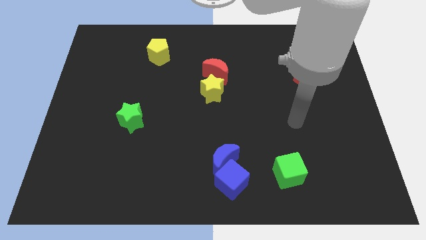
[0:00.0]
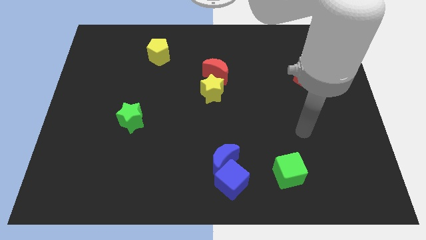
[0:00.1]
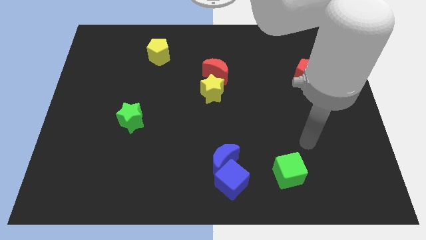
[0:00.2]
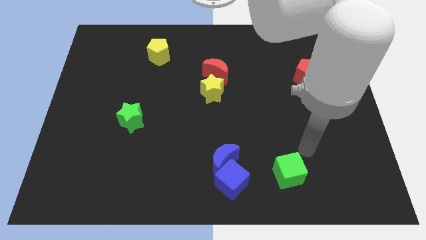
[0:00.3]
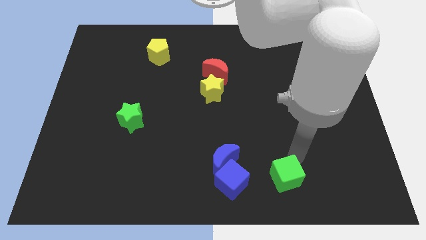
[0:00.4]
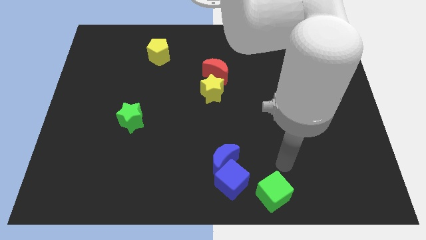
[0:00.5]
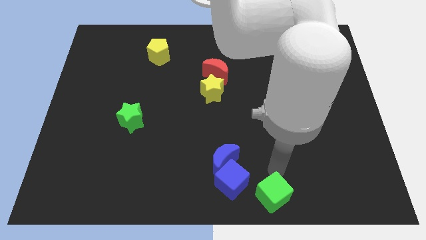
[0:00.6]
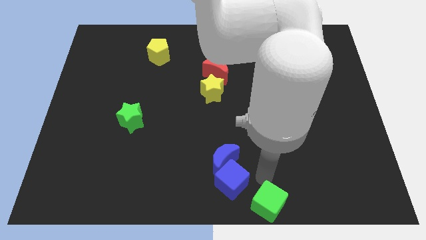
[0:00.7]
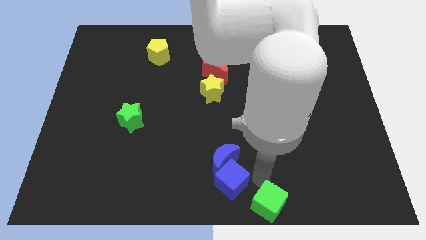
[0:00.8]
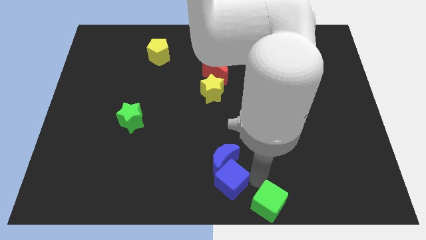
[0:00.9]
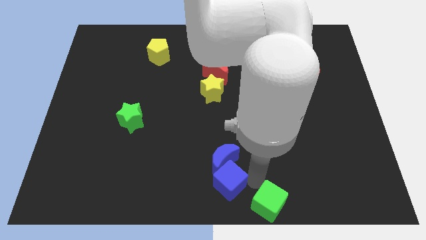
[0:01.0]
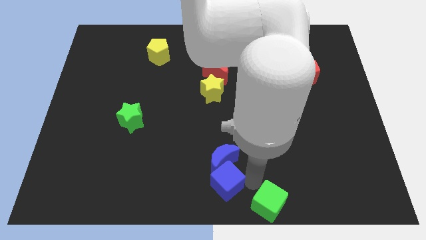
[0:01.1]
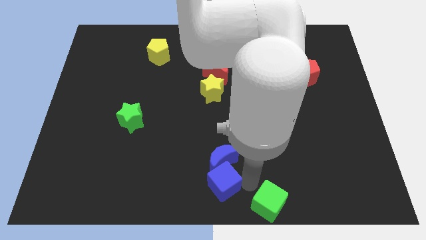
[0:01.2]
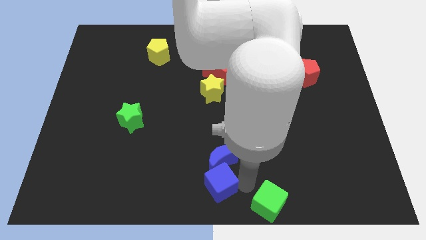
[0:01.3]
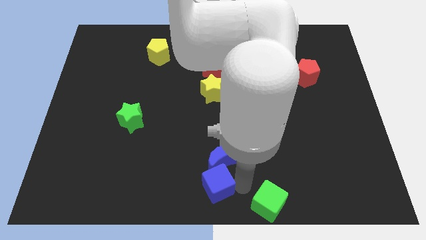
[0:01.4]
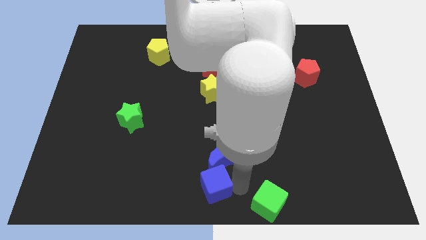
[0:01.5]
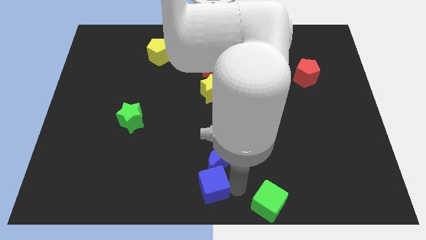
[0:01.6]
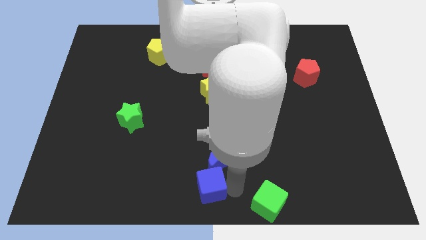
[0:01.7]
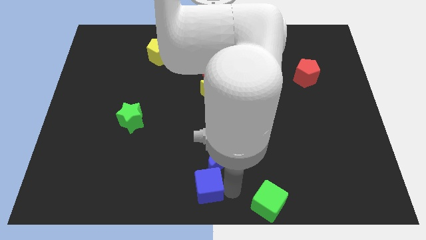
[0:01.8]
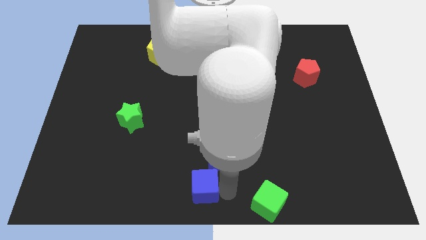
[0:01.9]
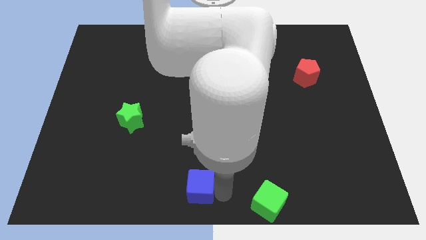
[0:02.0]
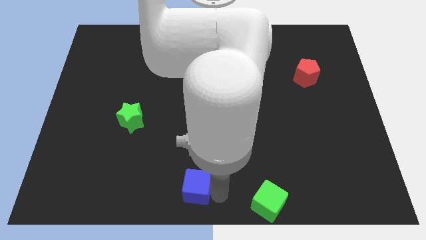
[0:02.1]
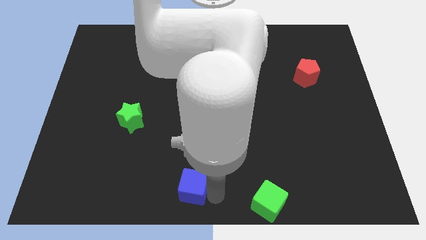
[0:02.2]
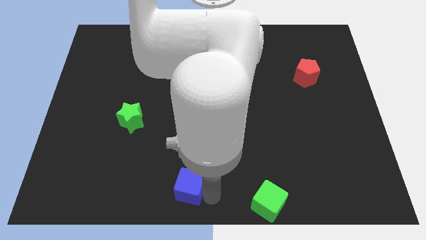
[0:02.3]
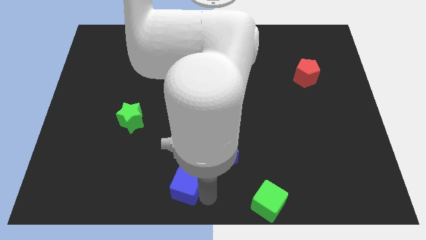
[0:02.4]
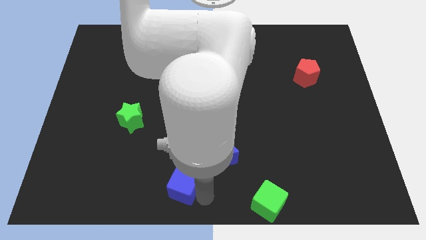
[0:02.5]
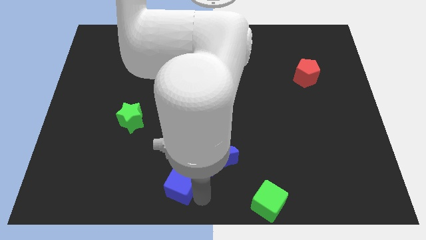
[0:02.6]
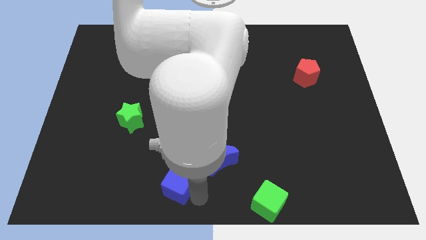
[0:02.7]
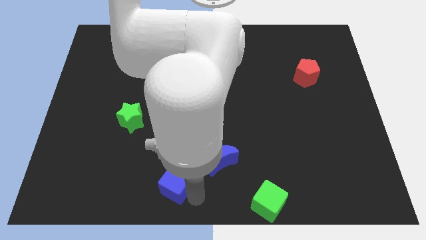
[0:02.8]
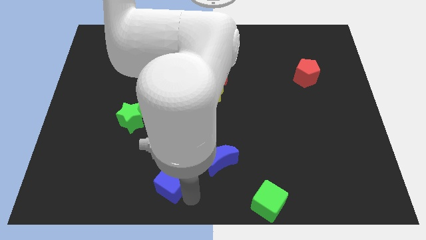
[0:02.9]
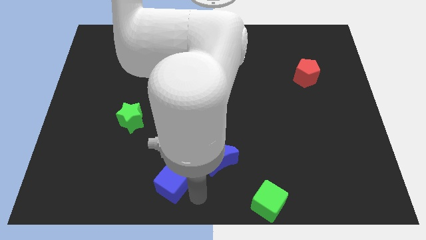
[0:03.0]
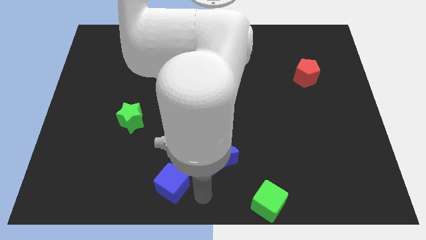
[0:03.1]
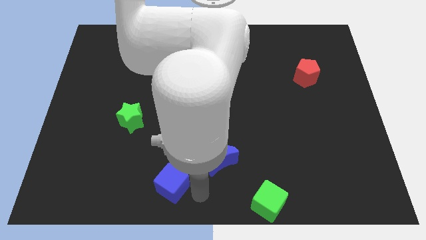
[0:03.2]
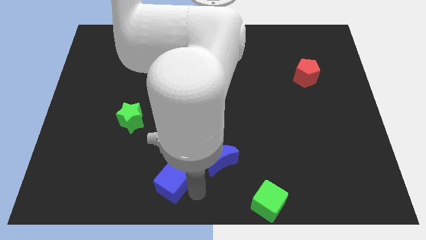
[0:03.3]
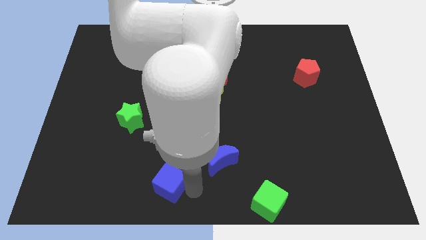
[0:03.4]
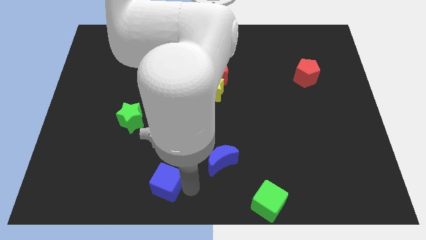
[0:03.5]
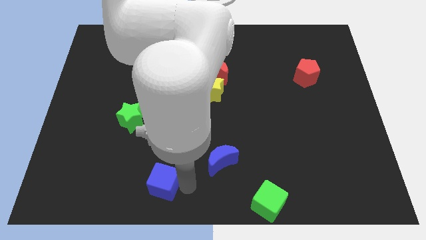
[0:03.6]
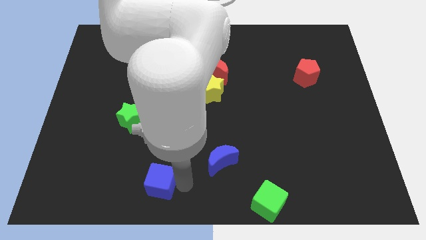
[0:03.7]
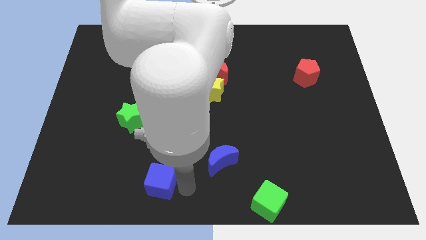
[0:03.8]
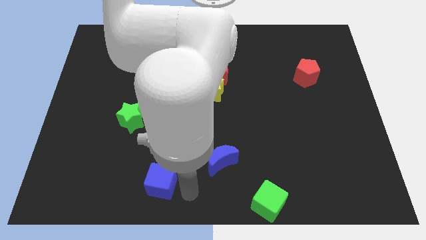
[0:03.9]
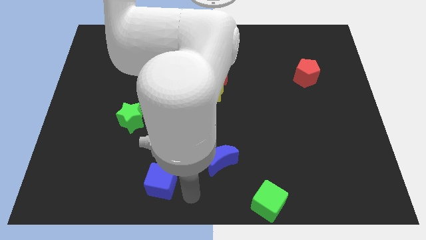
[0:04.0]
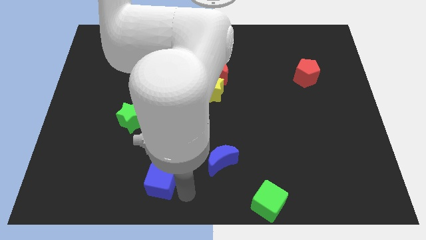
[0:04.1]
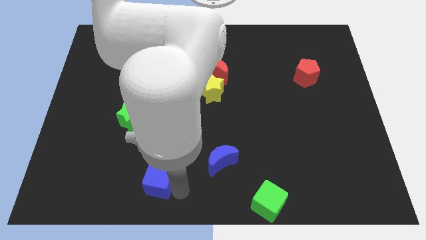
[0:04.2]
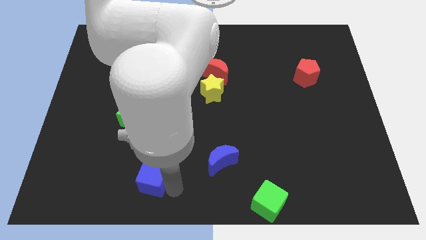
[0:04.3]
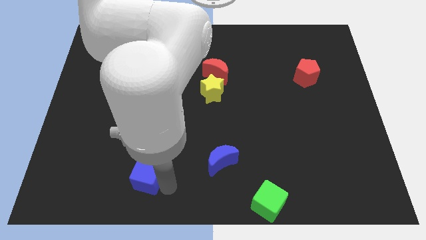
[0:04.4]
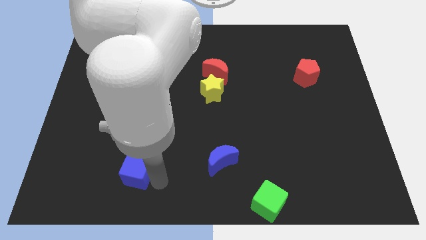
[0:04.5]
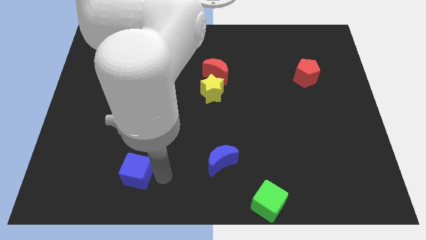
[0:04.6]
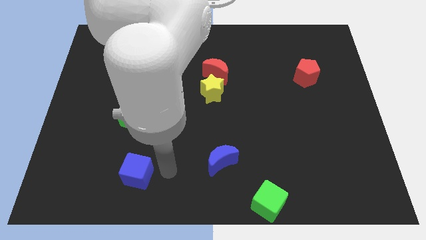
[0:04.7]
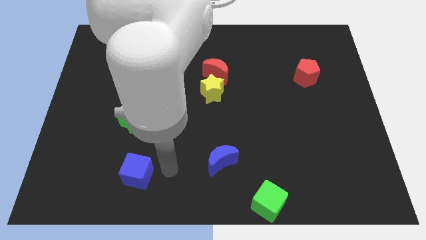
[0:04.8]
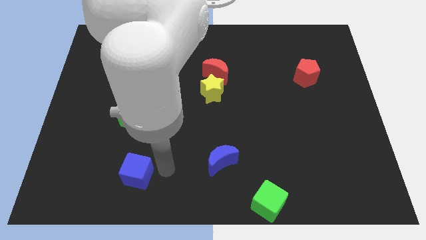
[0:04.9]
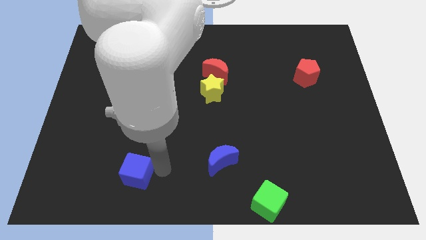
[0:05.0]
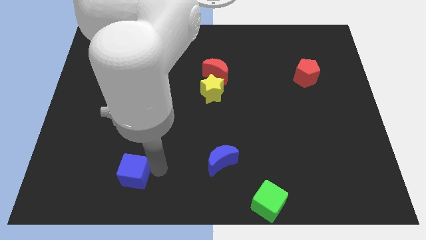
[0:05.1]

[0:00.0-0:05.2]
slide the blue cube left

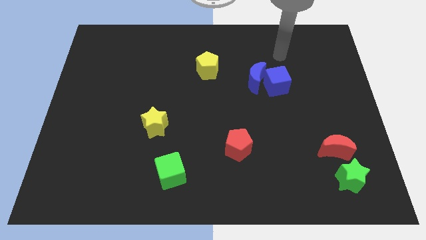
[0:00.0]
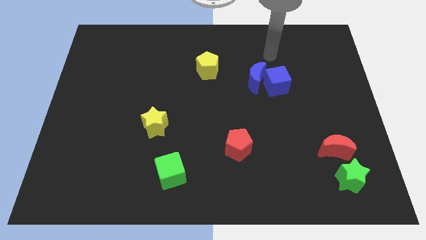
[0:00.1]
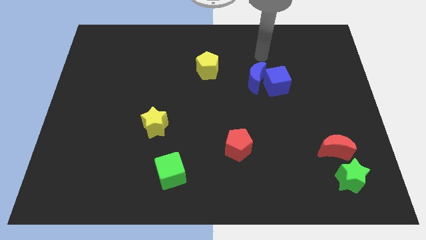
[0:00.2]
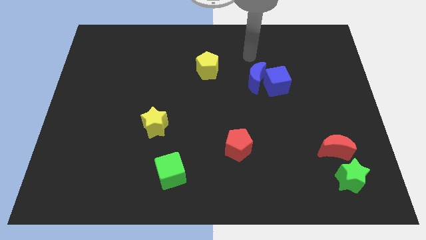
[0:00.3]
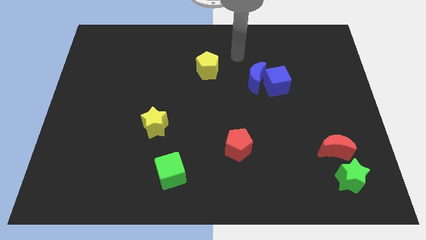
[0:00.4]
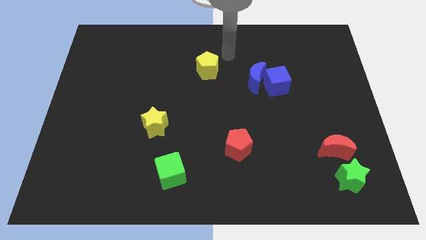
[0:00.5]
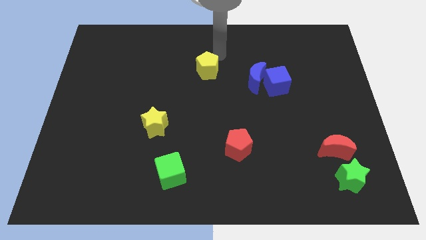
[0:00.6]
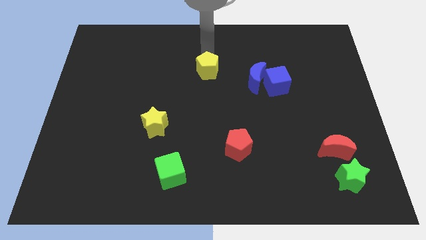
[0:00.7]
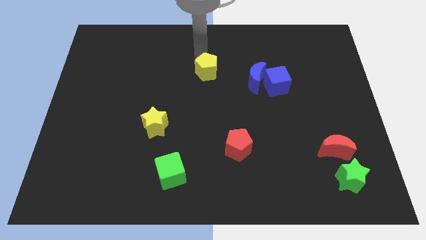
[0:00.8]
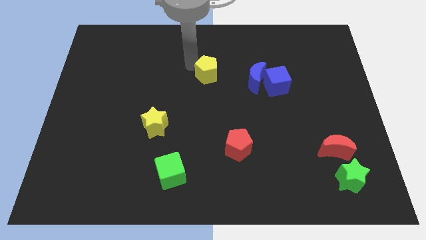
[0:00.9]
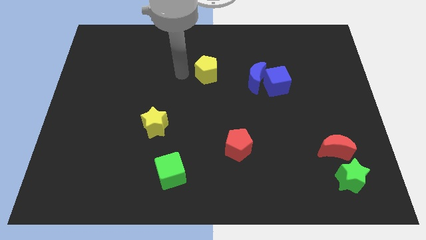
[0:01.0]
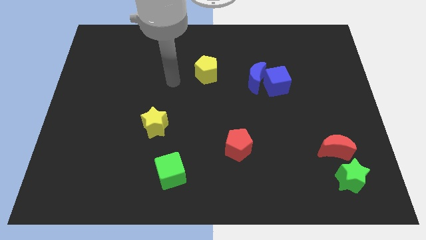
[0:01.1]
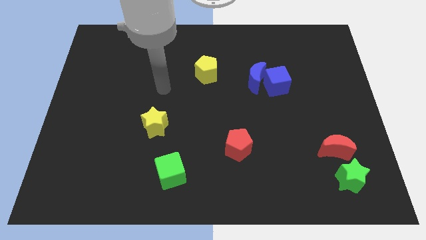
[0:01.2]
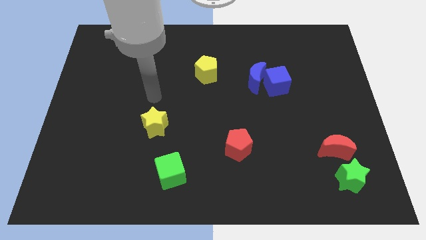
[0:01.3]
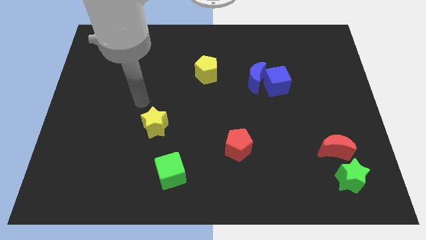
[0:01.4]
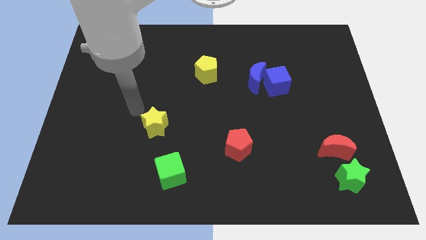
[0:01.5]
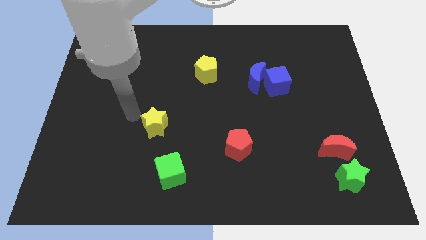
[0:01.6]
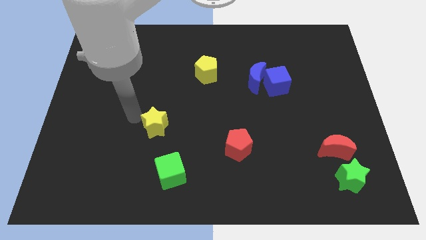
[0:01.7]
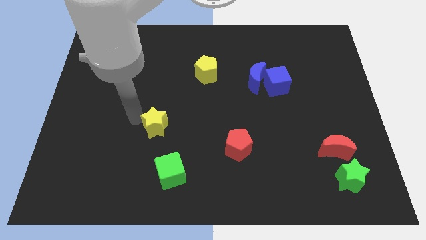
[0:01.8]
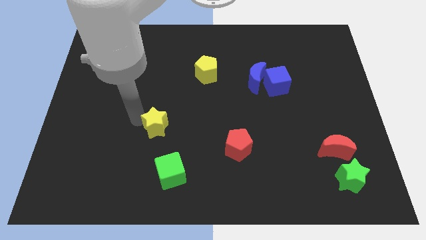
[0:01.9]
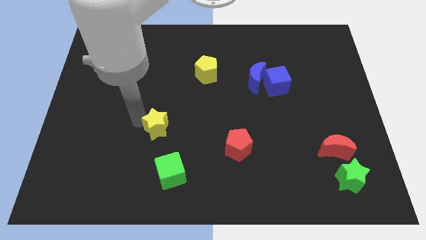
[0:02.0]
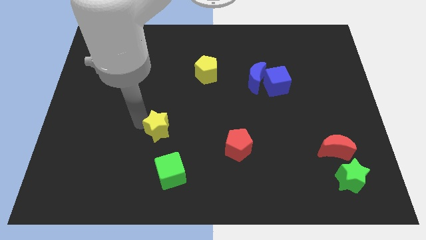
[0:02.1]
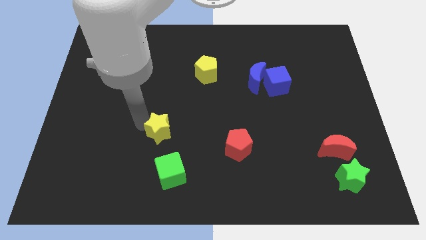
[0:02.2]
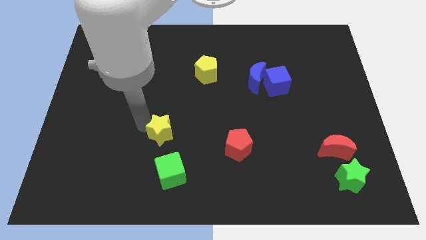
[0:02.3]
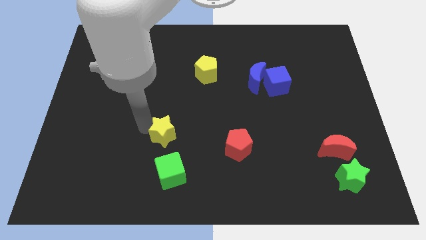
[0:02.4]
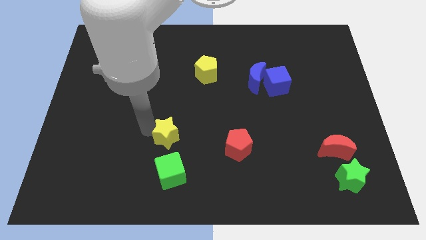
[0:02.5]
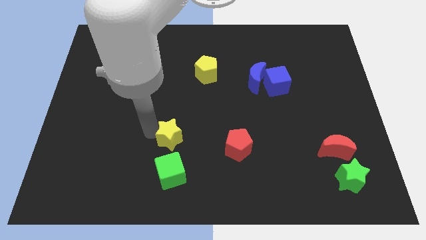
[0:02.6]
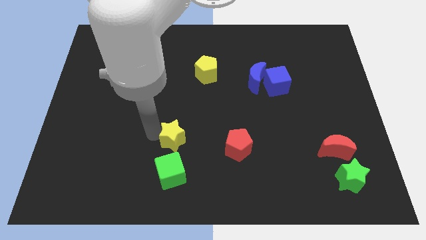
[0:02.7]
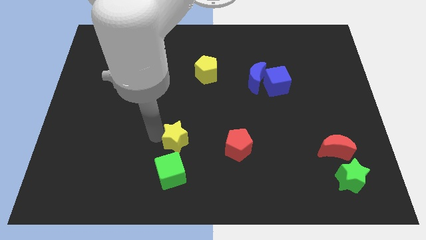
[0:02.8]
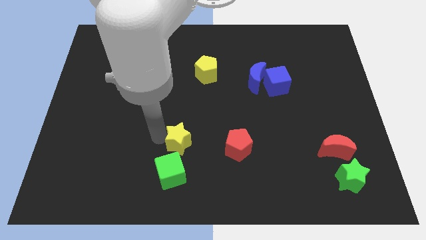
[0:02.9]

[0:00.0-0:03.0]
push the yellow star a little bit diagonally down and to the right

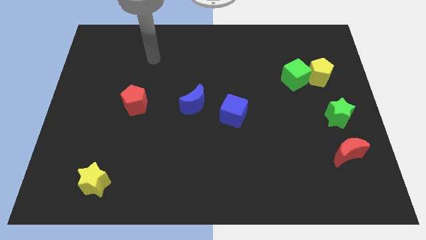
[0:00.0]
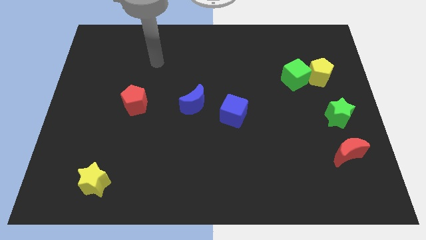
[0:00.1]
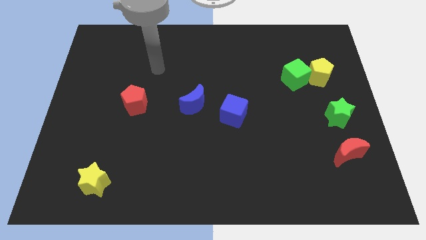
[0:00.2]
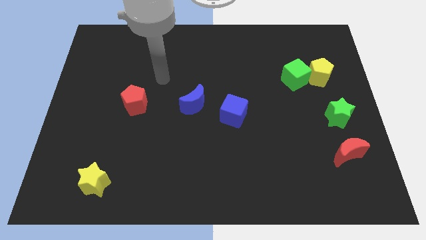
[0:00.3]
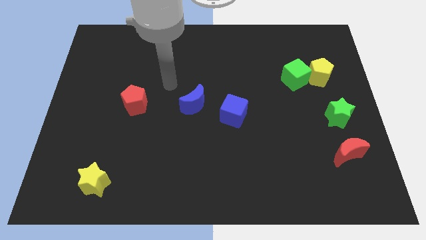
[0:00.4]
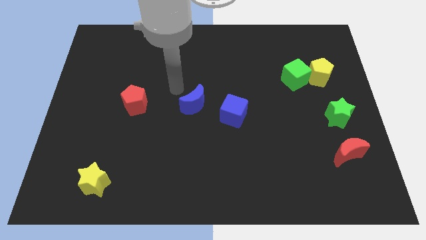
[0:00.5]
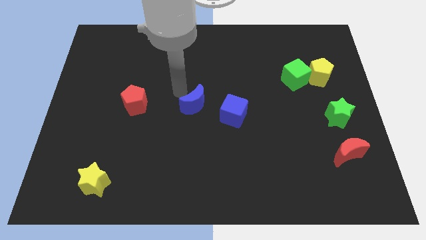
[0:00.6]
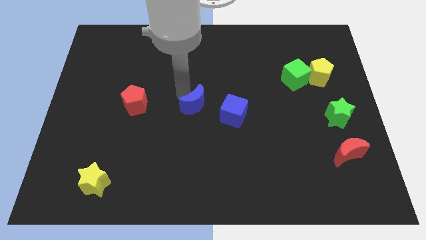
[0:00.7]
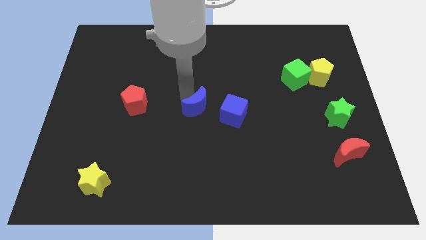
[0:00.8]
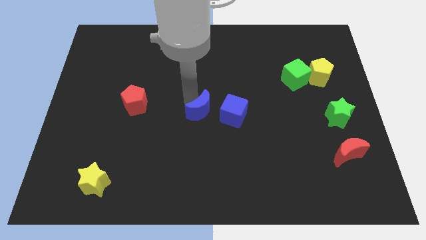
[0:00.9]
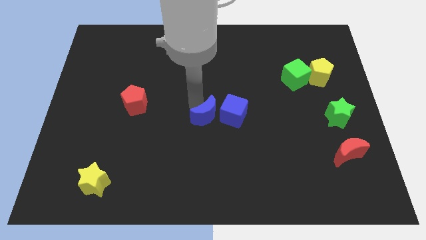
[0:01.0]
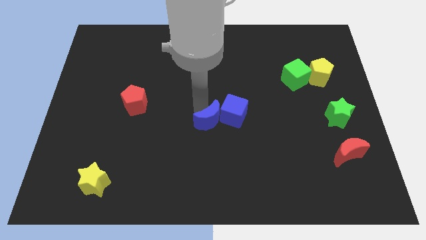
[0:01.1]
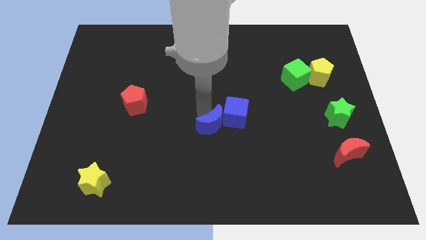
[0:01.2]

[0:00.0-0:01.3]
move the blue moon downwards and to the right a bit
